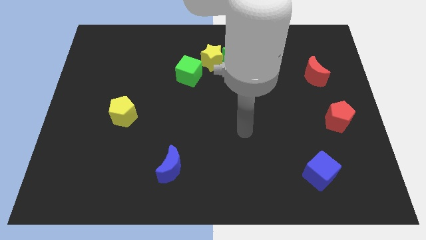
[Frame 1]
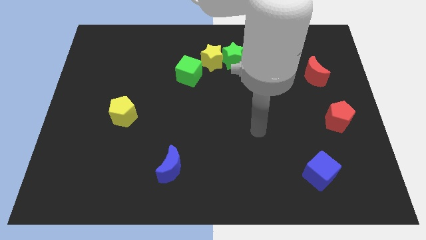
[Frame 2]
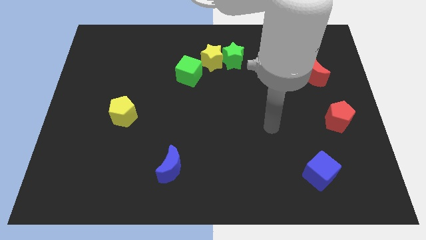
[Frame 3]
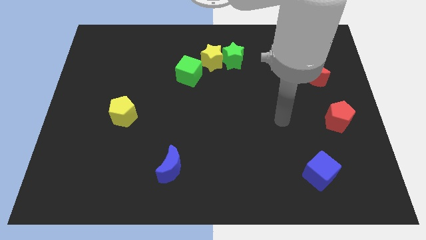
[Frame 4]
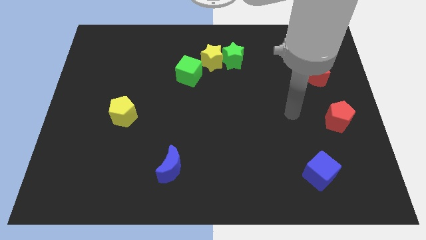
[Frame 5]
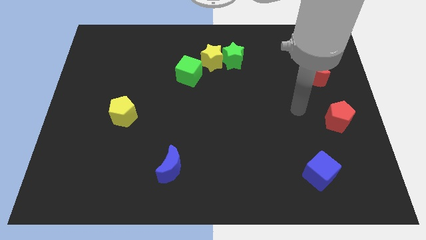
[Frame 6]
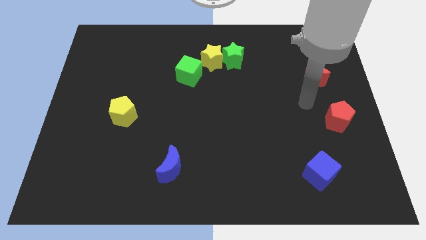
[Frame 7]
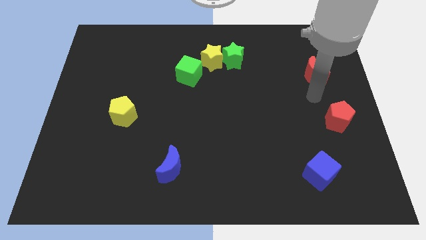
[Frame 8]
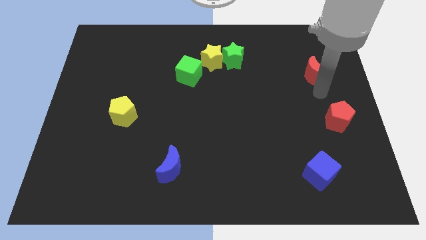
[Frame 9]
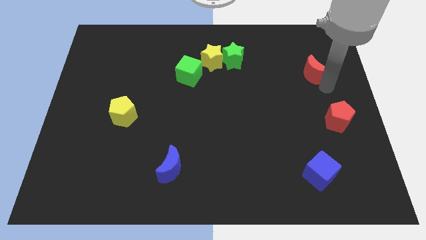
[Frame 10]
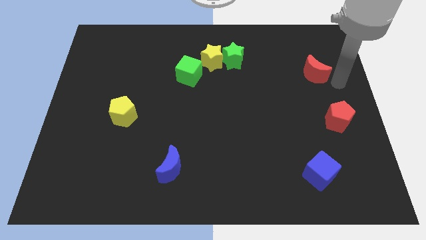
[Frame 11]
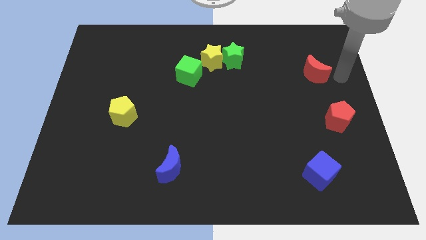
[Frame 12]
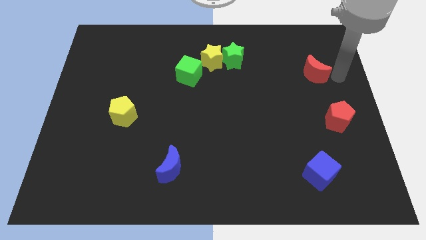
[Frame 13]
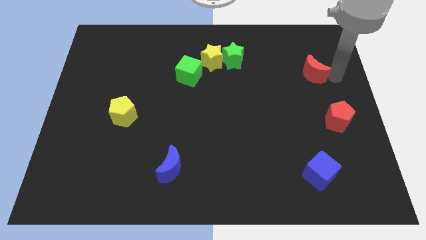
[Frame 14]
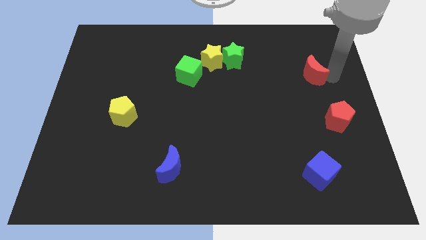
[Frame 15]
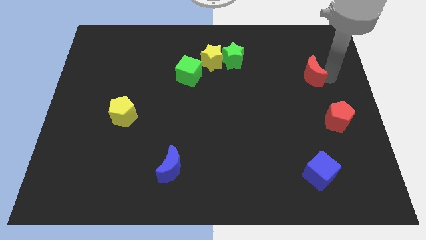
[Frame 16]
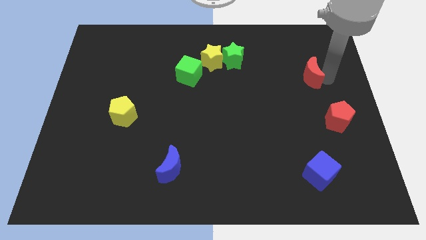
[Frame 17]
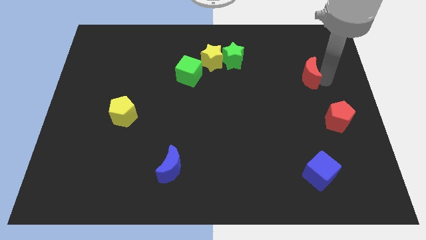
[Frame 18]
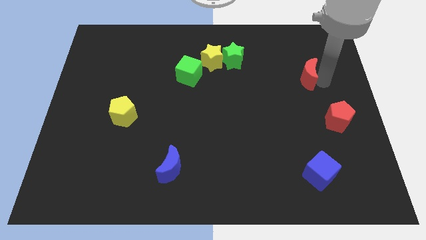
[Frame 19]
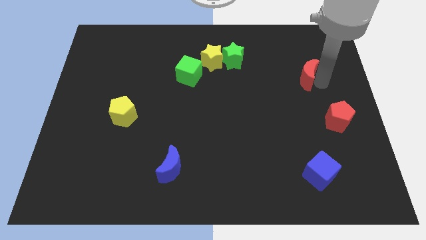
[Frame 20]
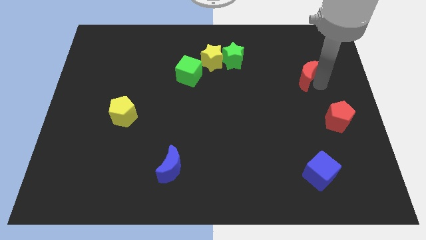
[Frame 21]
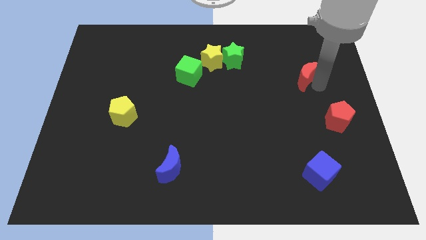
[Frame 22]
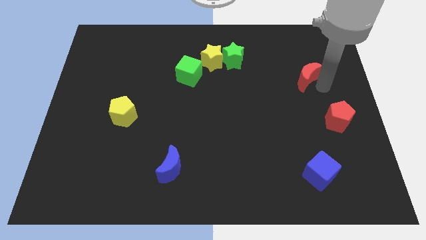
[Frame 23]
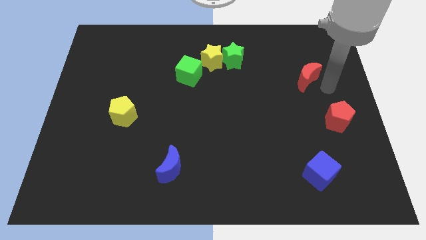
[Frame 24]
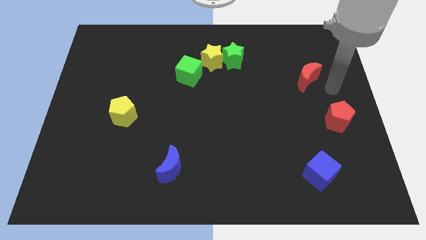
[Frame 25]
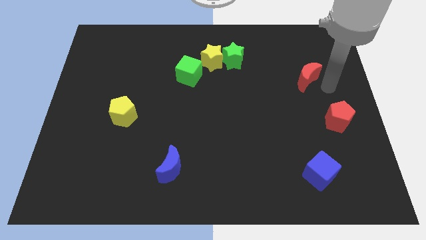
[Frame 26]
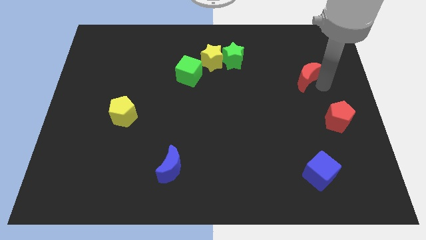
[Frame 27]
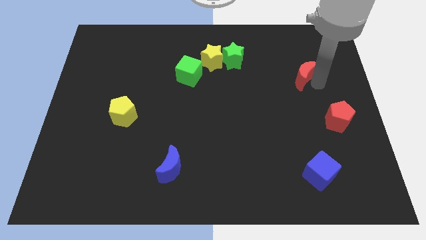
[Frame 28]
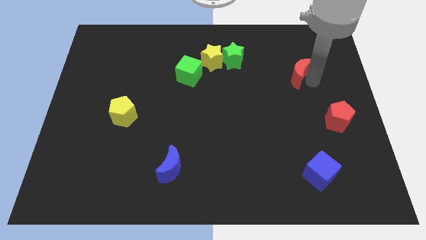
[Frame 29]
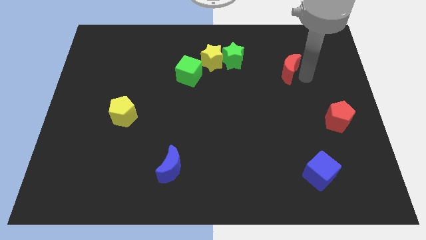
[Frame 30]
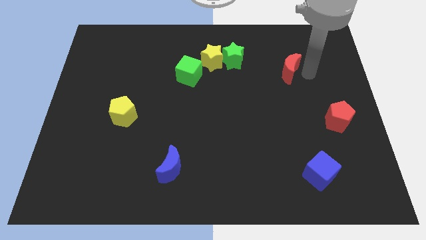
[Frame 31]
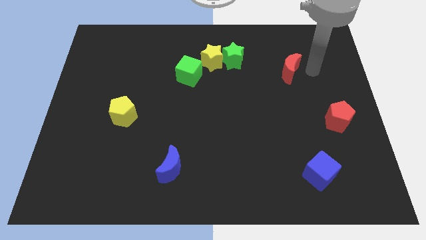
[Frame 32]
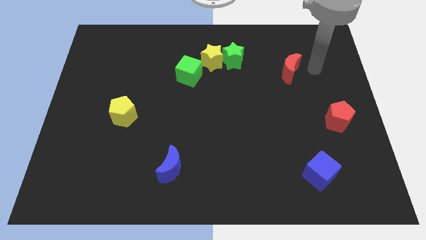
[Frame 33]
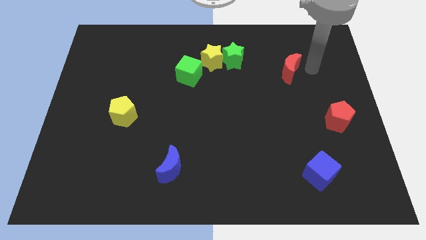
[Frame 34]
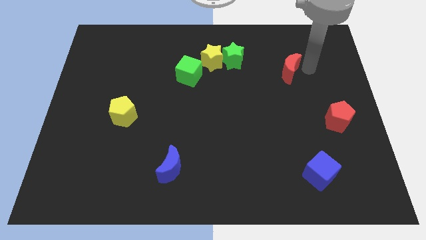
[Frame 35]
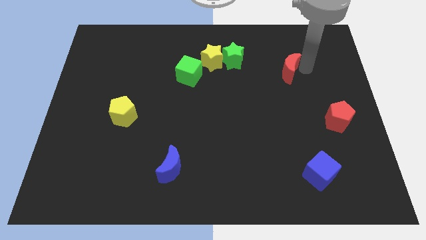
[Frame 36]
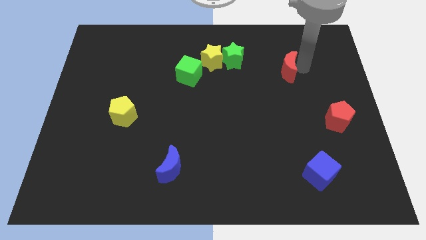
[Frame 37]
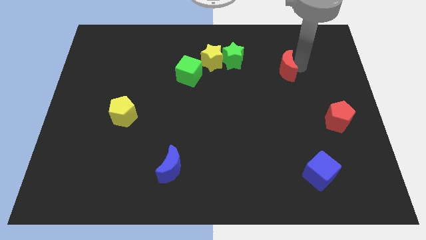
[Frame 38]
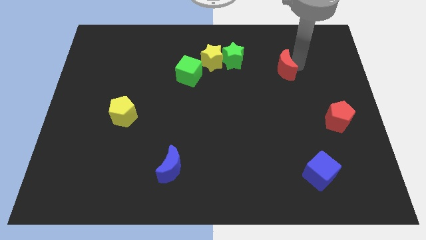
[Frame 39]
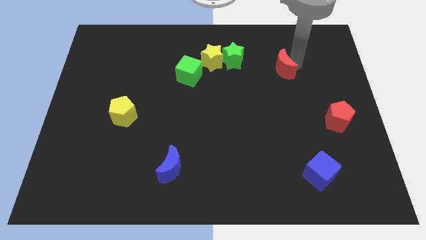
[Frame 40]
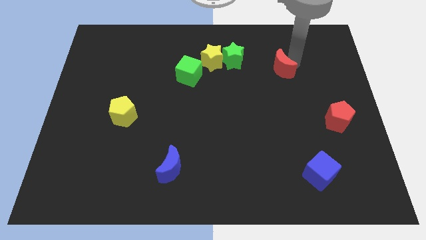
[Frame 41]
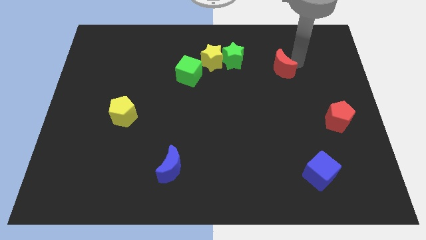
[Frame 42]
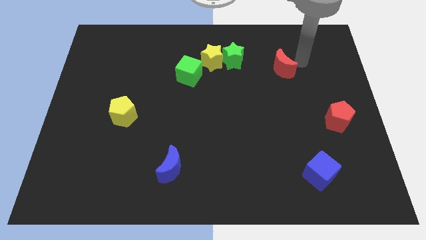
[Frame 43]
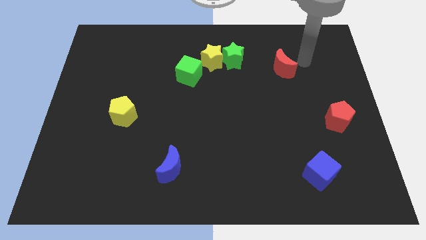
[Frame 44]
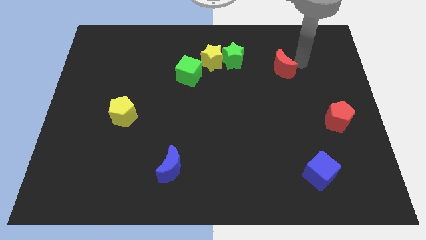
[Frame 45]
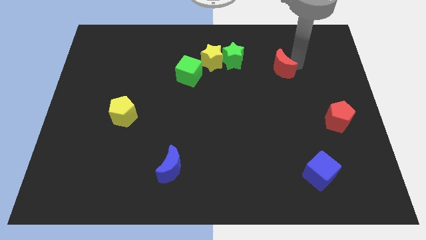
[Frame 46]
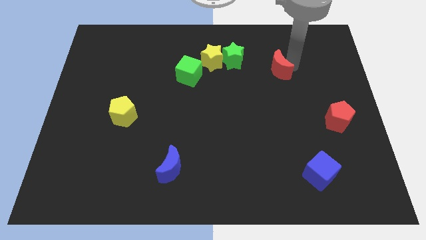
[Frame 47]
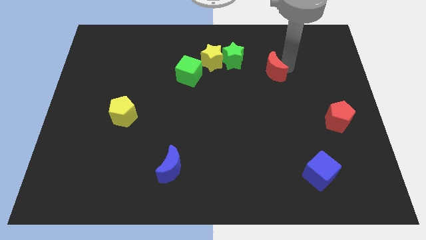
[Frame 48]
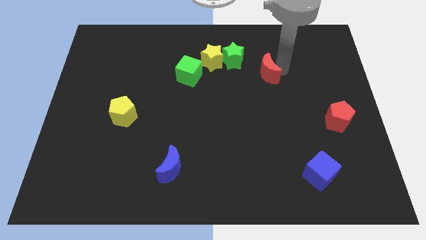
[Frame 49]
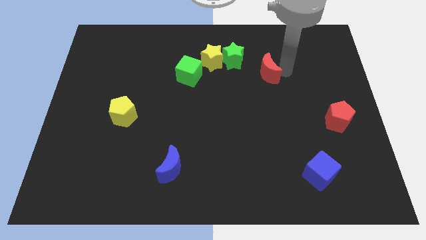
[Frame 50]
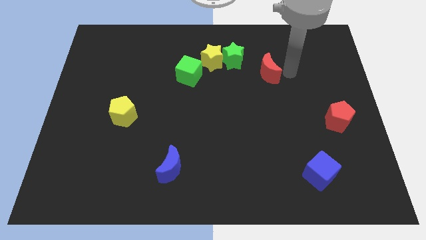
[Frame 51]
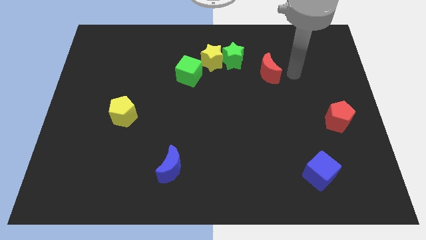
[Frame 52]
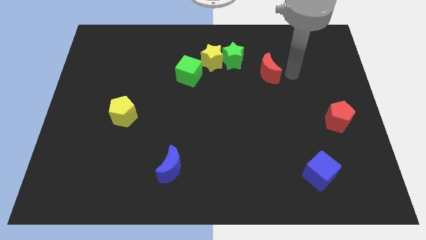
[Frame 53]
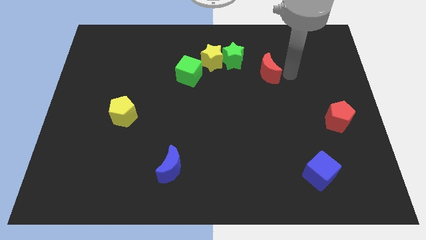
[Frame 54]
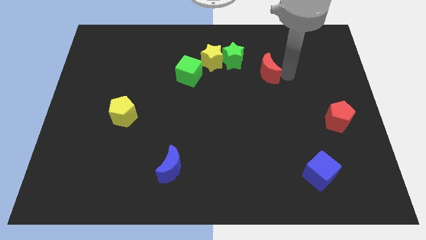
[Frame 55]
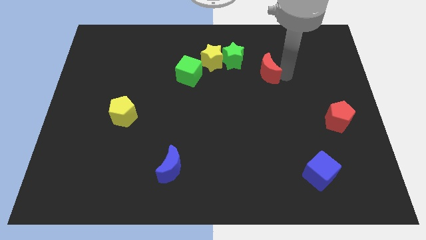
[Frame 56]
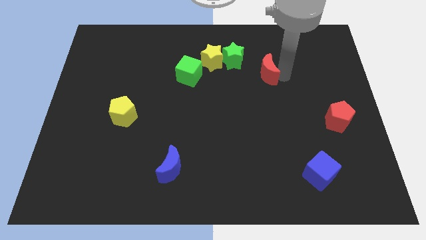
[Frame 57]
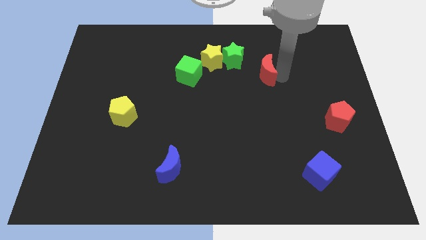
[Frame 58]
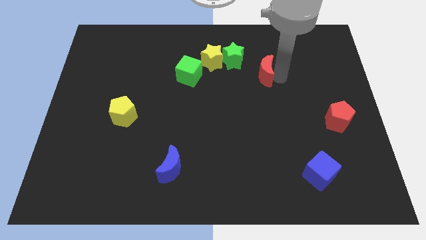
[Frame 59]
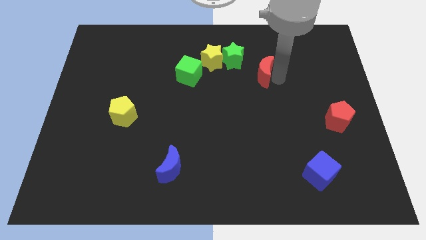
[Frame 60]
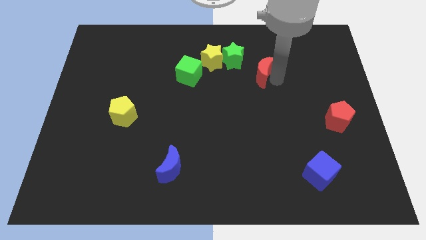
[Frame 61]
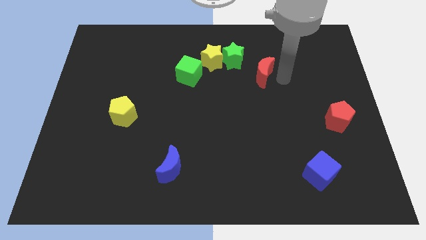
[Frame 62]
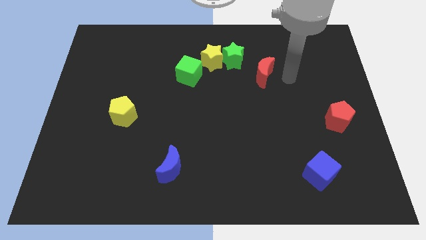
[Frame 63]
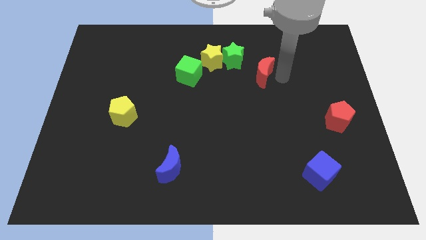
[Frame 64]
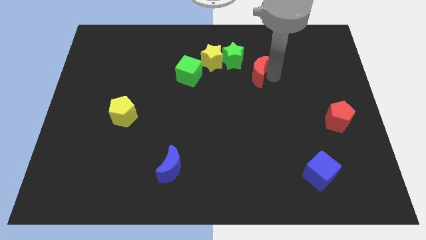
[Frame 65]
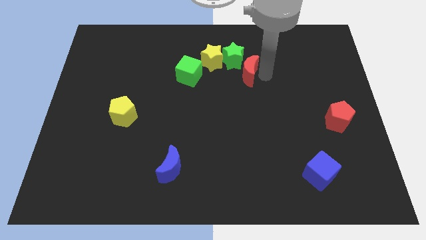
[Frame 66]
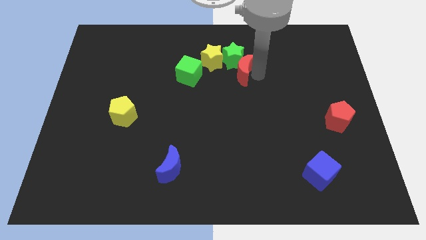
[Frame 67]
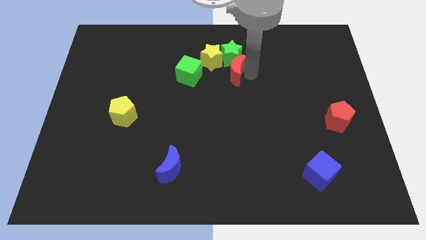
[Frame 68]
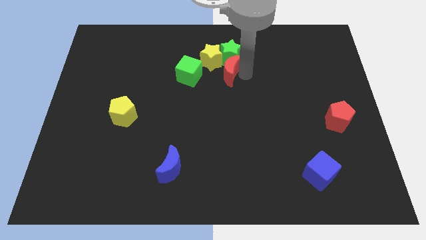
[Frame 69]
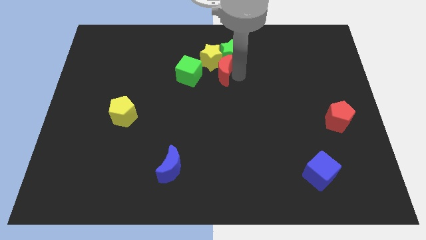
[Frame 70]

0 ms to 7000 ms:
put the red moon next to the yellow star

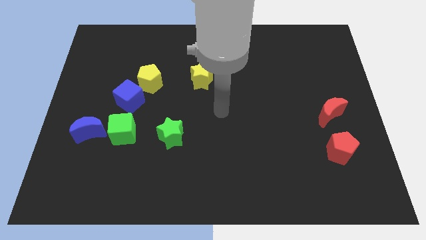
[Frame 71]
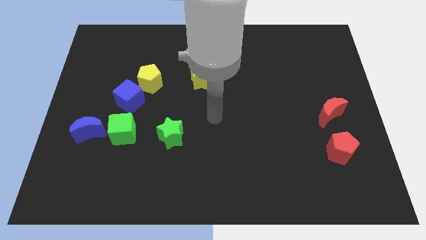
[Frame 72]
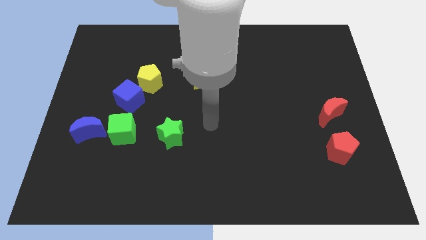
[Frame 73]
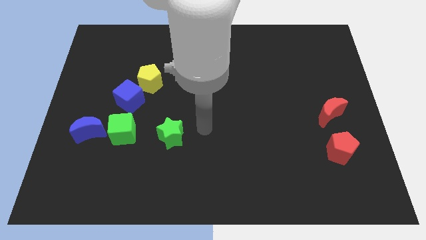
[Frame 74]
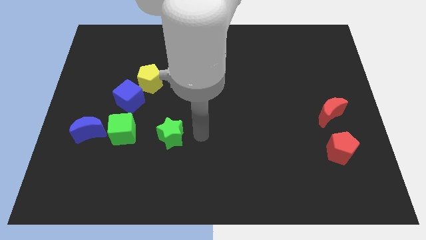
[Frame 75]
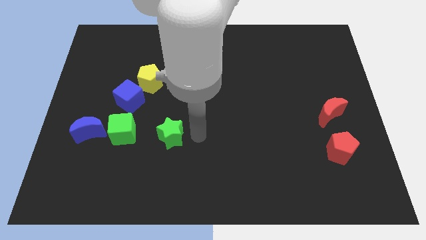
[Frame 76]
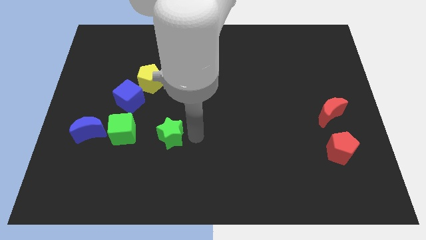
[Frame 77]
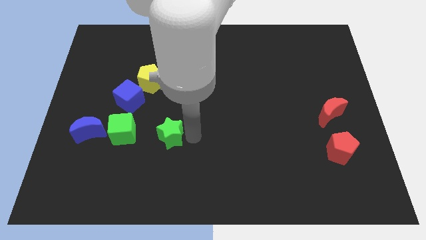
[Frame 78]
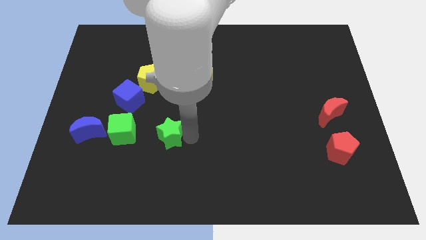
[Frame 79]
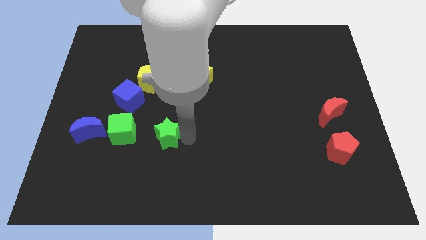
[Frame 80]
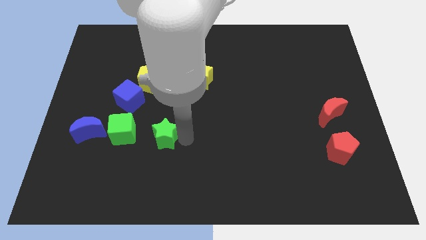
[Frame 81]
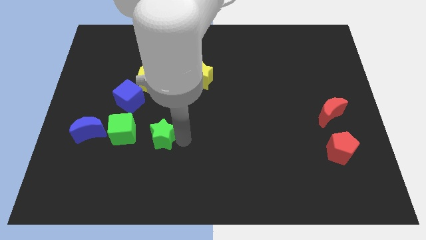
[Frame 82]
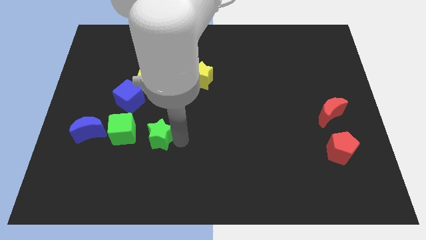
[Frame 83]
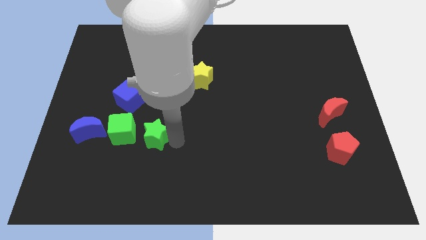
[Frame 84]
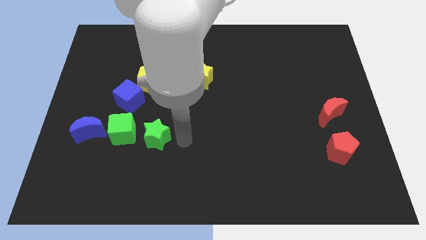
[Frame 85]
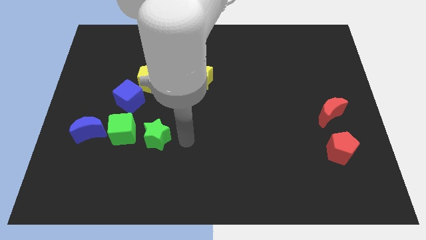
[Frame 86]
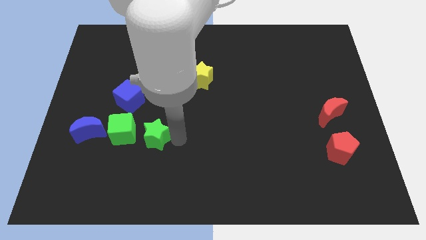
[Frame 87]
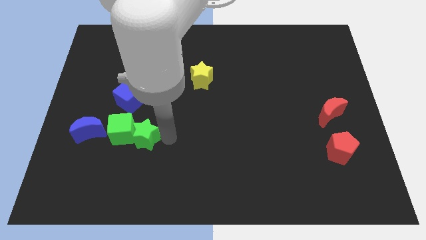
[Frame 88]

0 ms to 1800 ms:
push the green star close to the green cube
